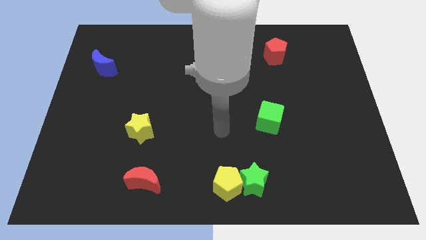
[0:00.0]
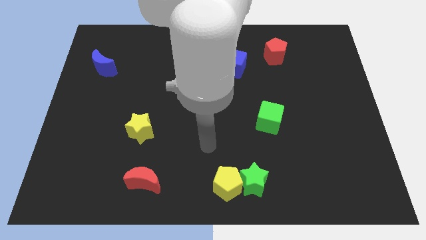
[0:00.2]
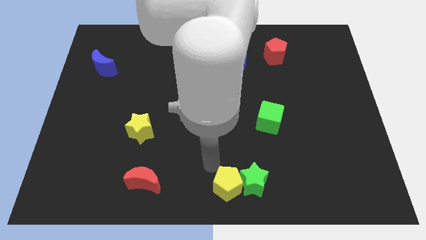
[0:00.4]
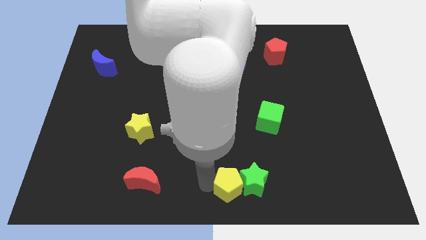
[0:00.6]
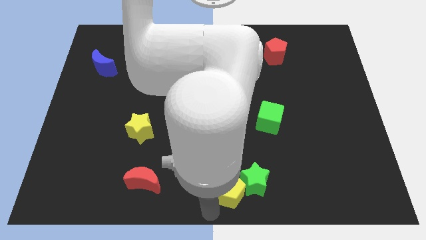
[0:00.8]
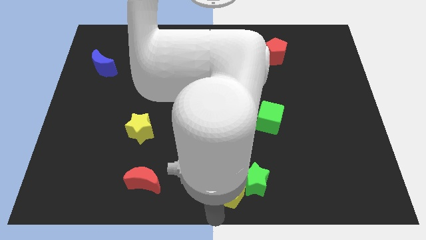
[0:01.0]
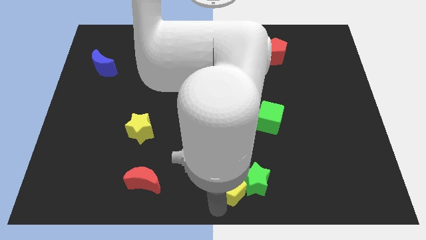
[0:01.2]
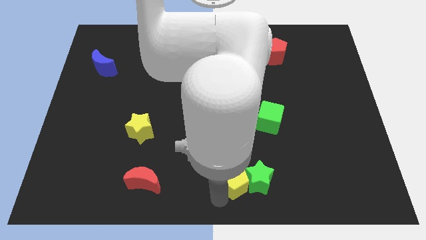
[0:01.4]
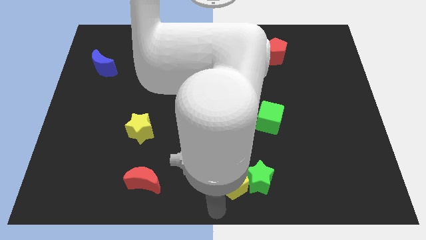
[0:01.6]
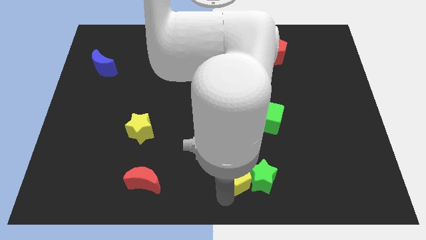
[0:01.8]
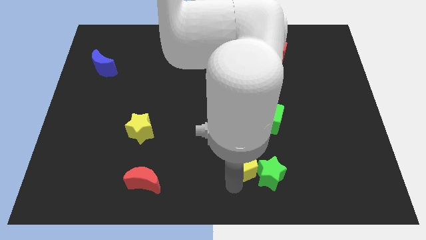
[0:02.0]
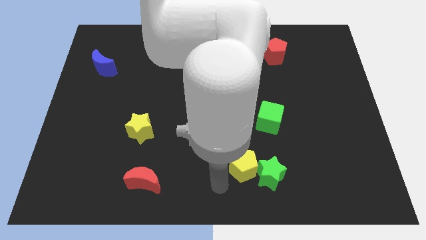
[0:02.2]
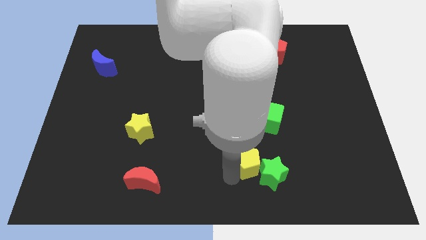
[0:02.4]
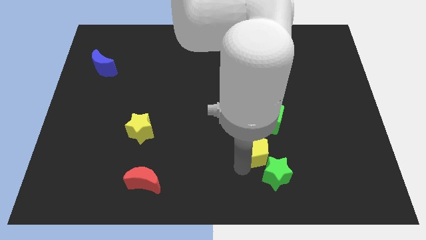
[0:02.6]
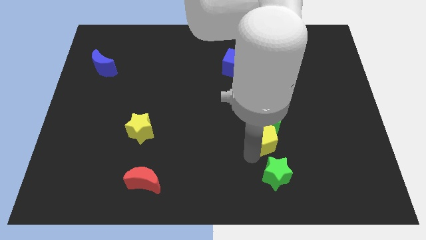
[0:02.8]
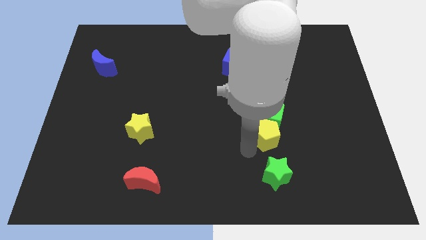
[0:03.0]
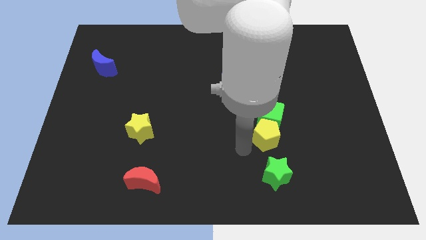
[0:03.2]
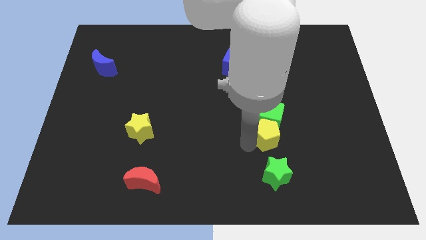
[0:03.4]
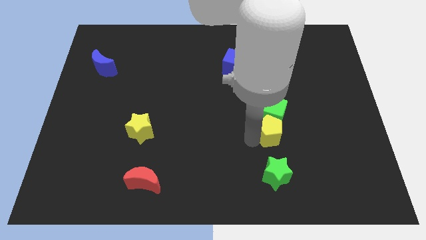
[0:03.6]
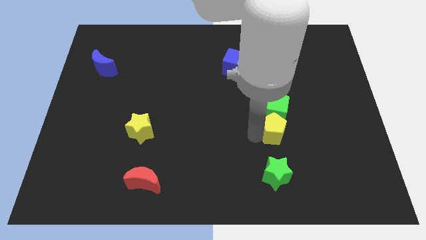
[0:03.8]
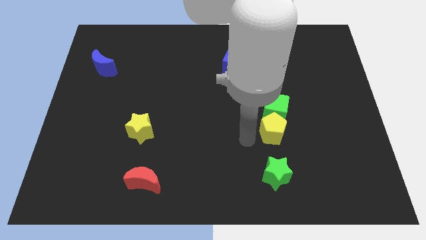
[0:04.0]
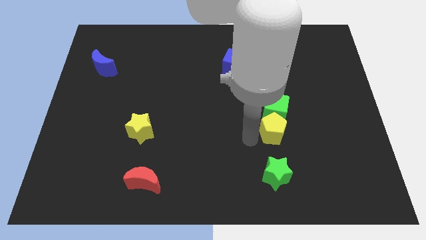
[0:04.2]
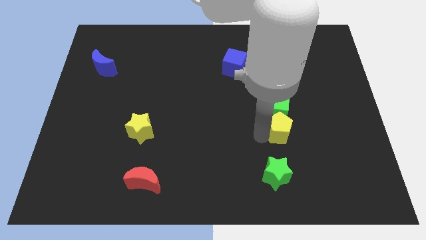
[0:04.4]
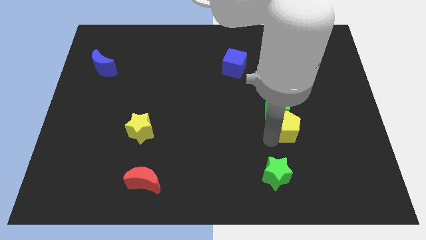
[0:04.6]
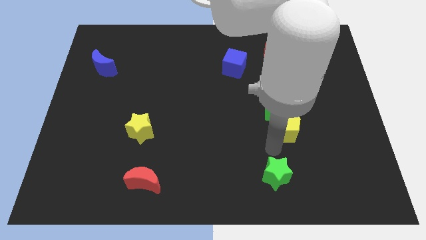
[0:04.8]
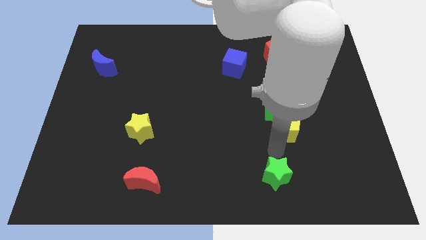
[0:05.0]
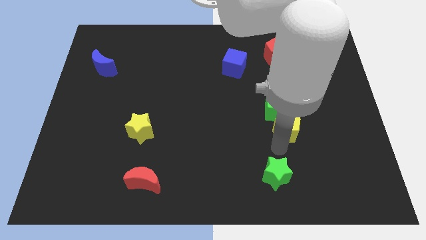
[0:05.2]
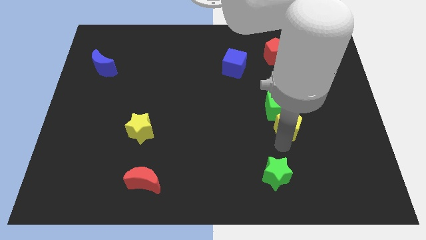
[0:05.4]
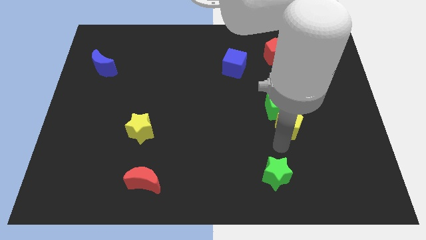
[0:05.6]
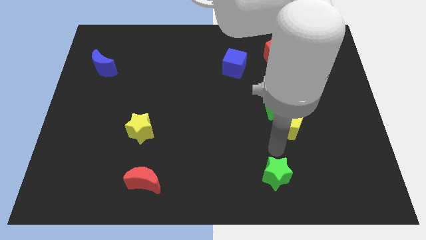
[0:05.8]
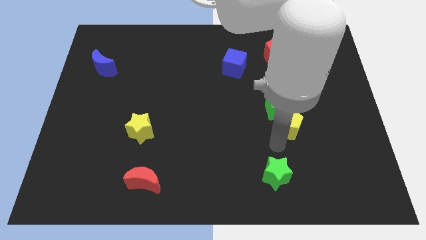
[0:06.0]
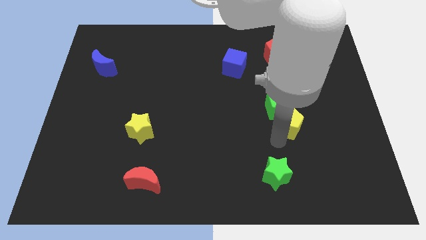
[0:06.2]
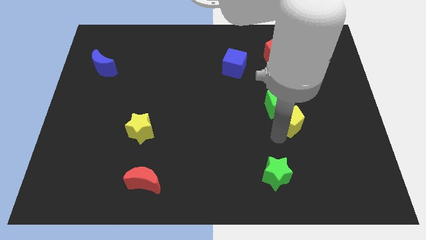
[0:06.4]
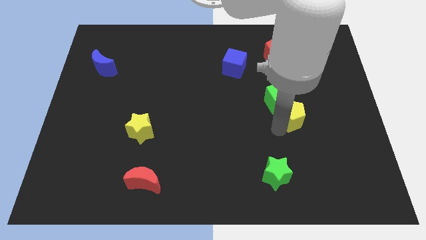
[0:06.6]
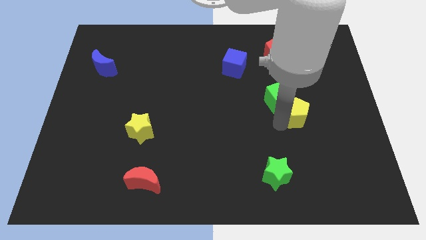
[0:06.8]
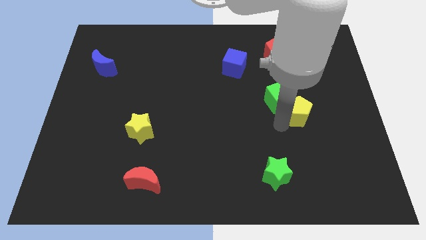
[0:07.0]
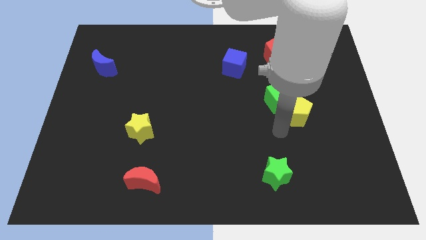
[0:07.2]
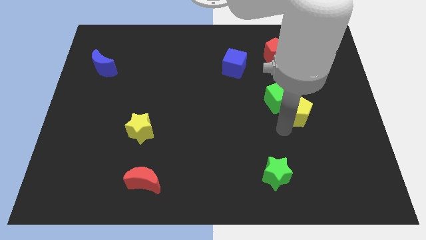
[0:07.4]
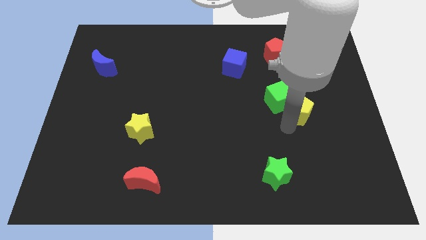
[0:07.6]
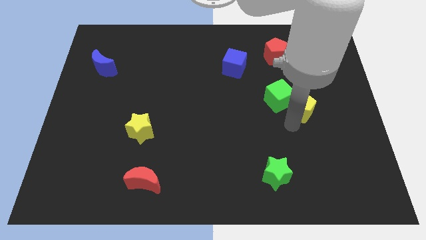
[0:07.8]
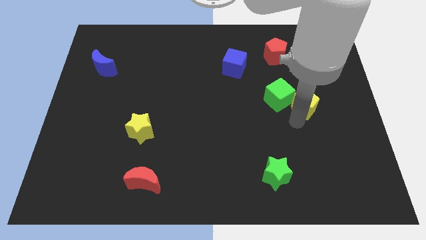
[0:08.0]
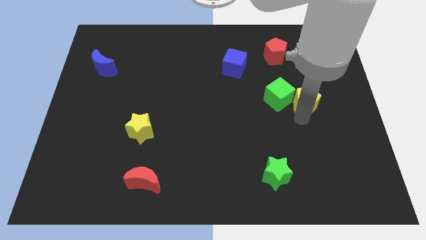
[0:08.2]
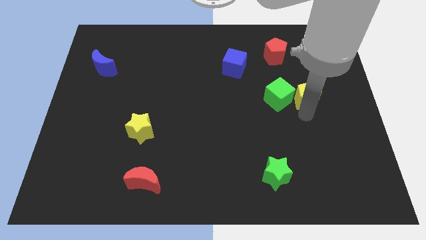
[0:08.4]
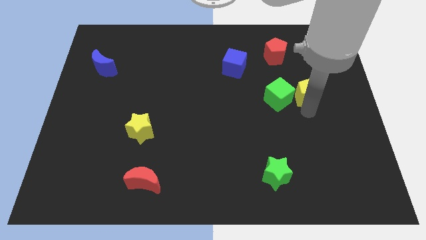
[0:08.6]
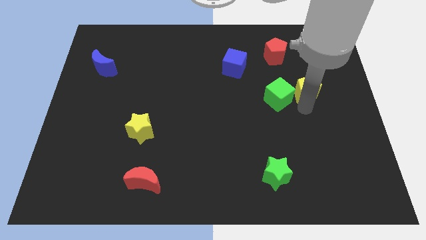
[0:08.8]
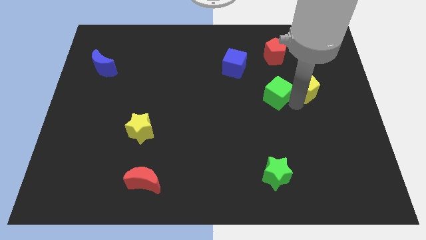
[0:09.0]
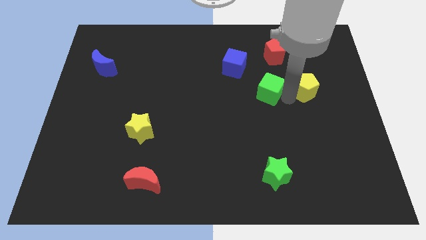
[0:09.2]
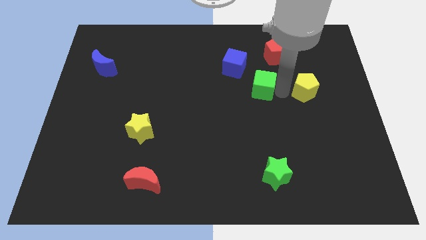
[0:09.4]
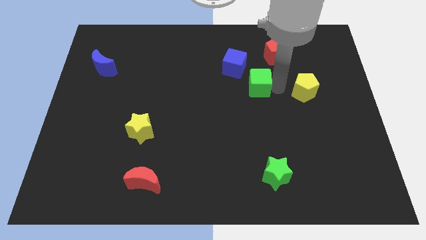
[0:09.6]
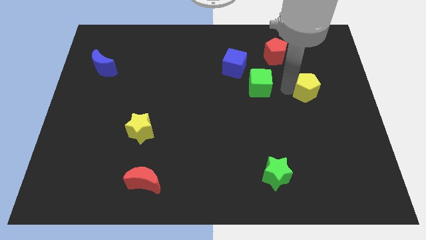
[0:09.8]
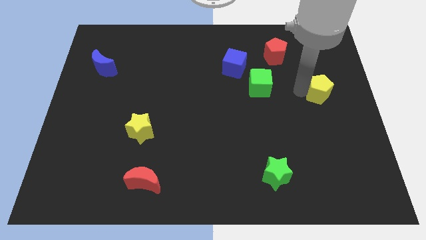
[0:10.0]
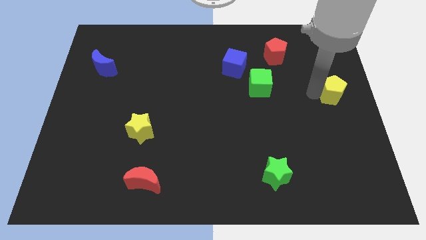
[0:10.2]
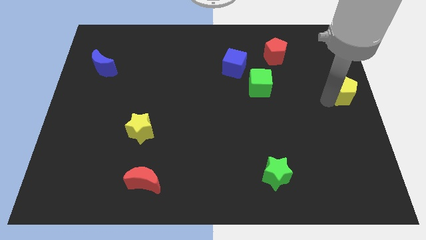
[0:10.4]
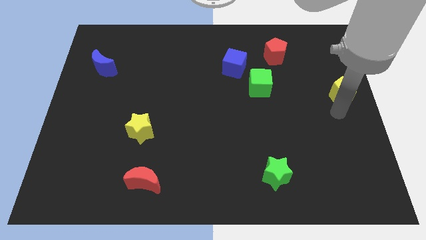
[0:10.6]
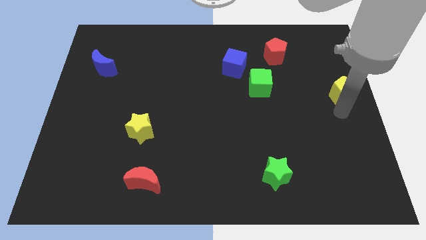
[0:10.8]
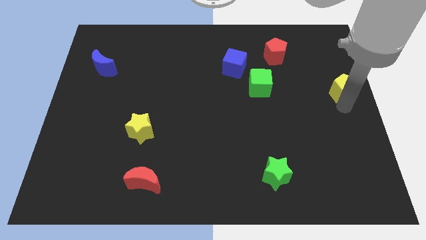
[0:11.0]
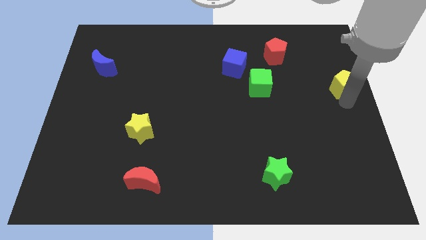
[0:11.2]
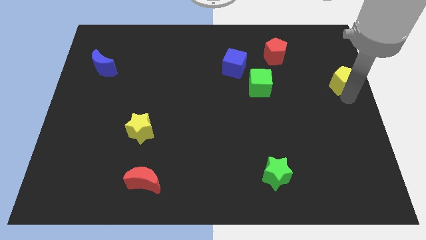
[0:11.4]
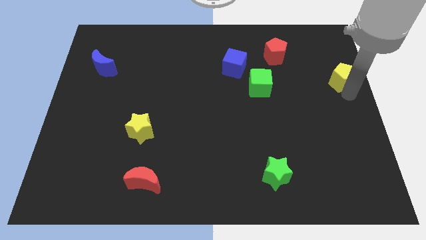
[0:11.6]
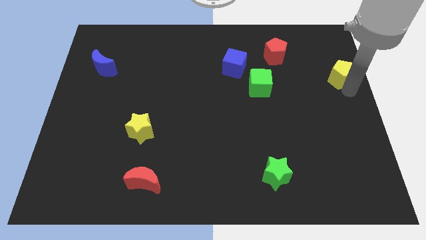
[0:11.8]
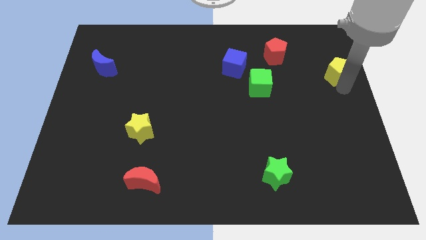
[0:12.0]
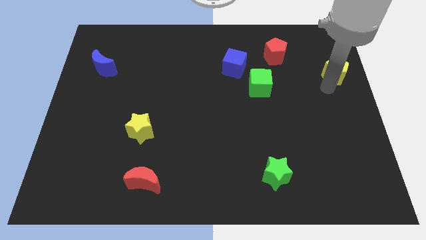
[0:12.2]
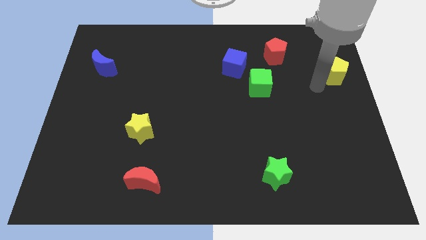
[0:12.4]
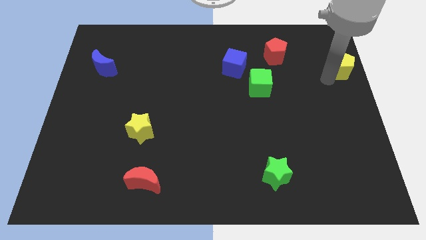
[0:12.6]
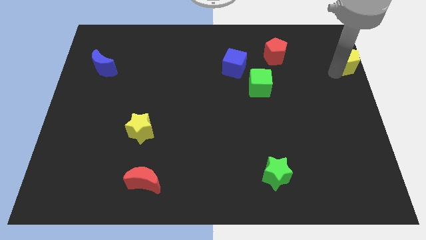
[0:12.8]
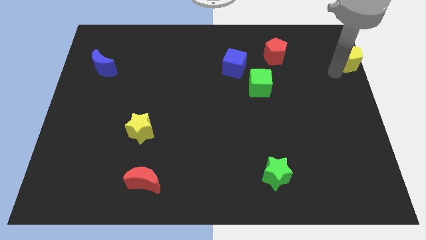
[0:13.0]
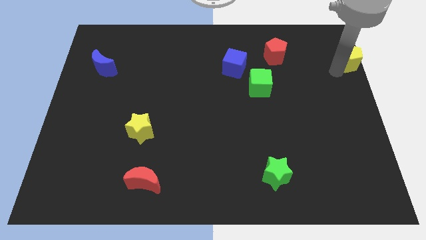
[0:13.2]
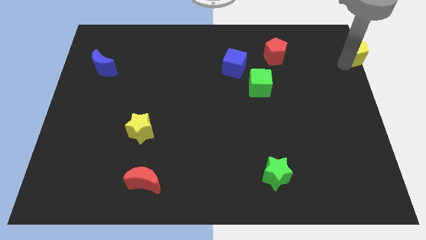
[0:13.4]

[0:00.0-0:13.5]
push the yellow pentagon to the upper right corner
